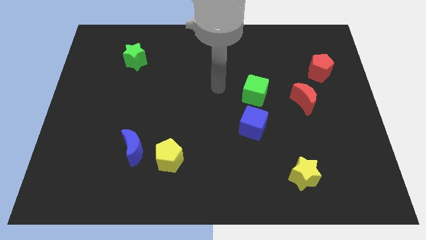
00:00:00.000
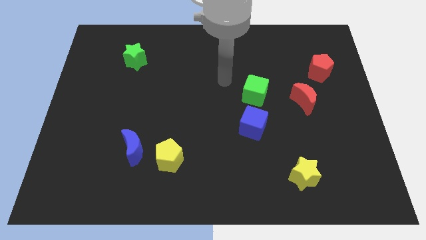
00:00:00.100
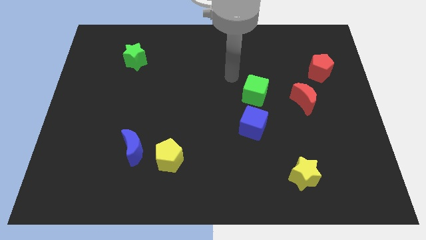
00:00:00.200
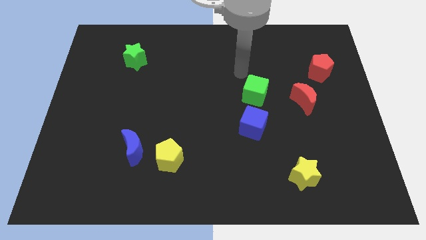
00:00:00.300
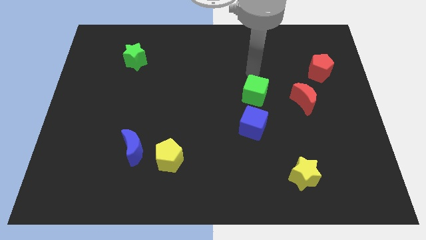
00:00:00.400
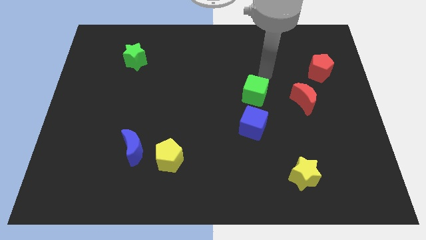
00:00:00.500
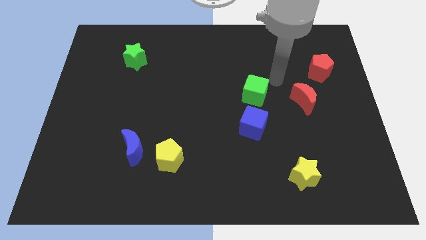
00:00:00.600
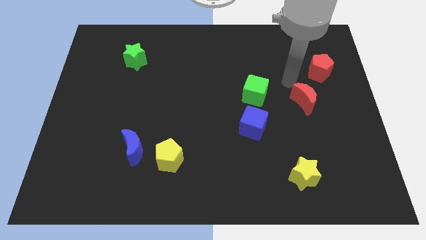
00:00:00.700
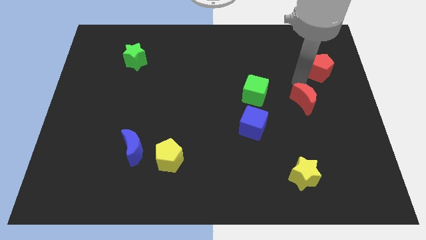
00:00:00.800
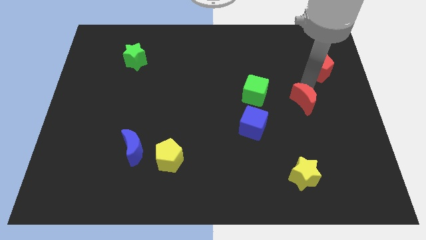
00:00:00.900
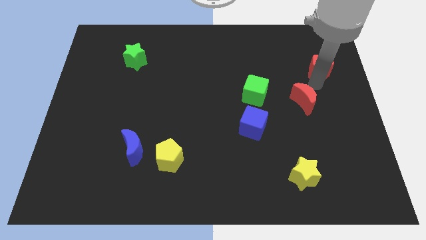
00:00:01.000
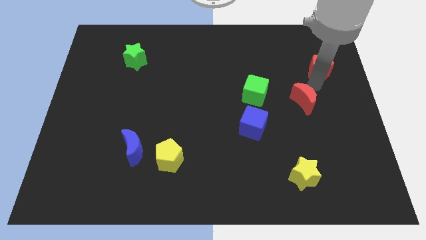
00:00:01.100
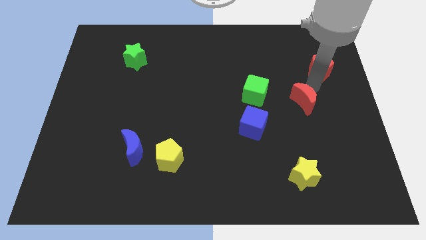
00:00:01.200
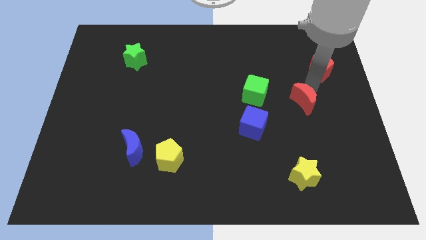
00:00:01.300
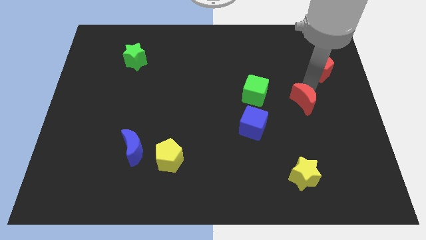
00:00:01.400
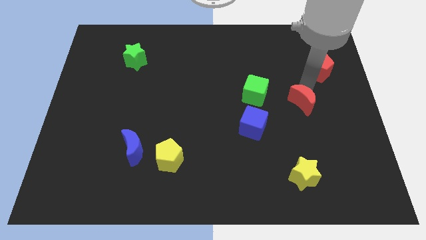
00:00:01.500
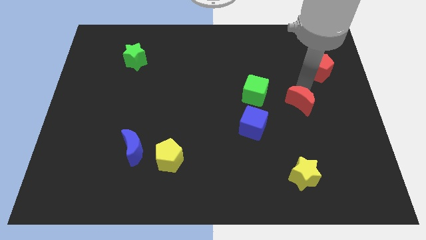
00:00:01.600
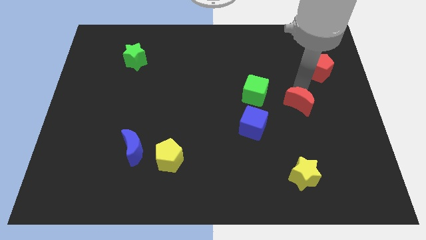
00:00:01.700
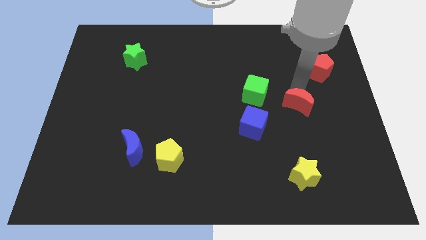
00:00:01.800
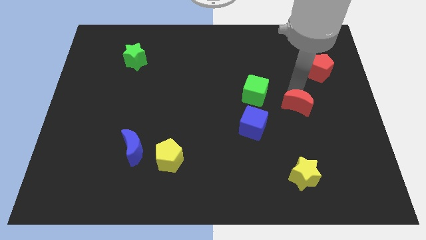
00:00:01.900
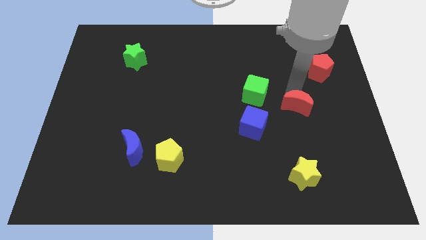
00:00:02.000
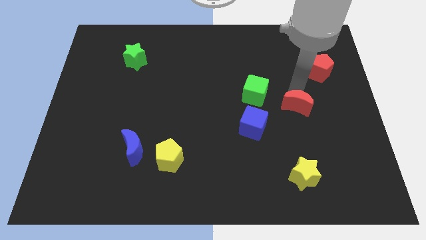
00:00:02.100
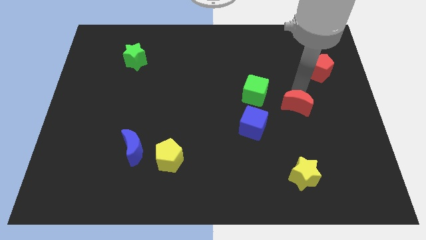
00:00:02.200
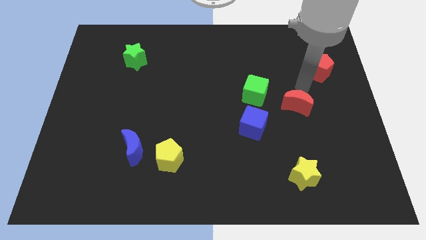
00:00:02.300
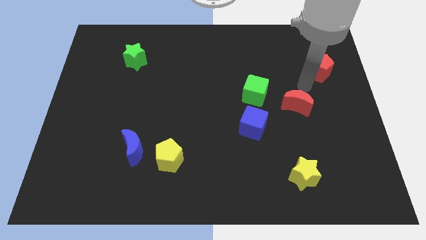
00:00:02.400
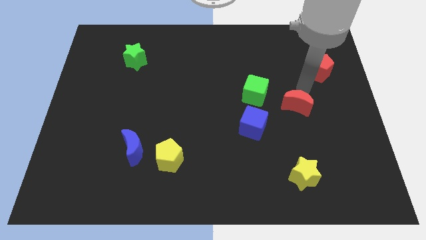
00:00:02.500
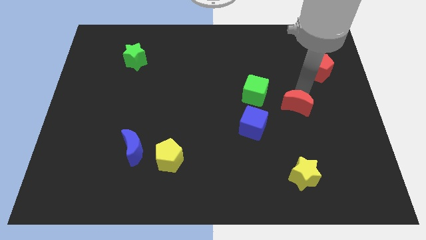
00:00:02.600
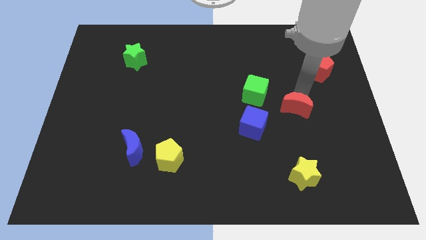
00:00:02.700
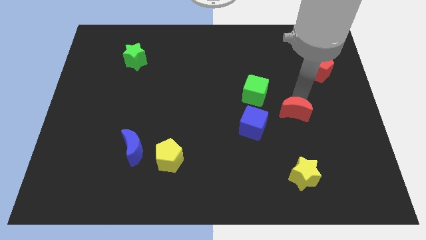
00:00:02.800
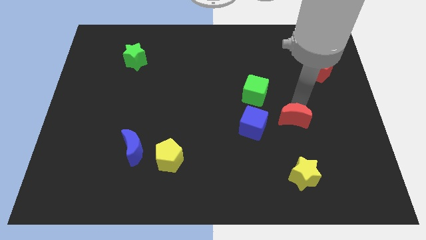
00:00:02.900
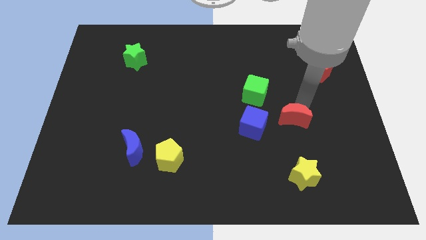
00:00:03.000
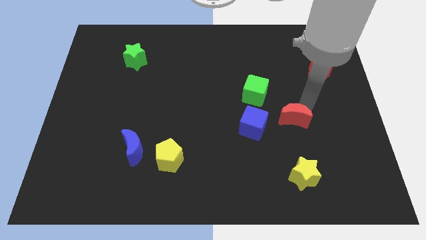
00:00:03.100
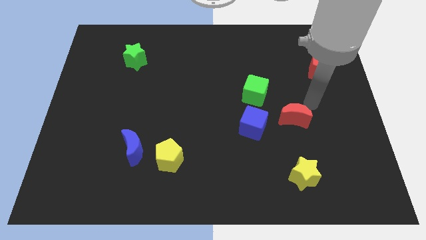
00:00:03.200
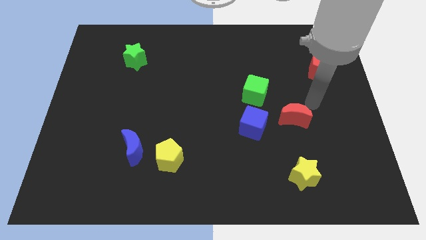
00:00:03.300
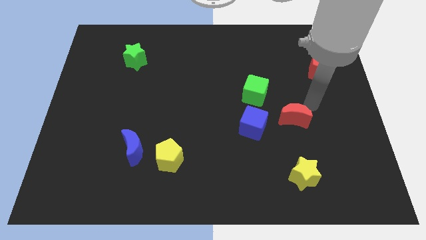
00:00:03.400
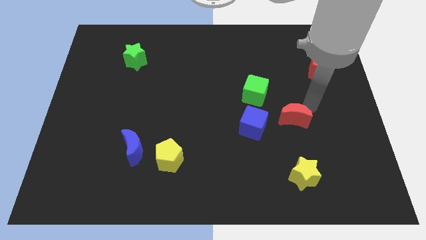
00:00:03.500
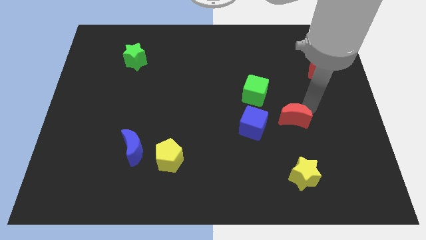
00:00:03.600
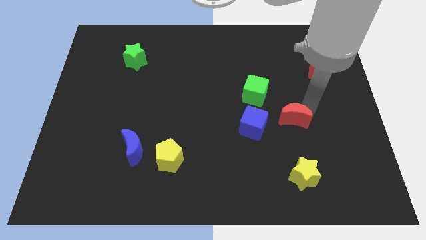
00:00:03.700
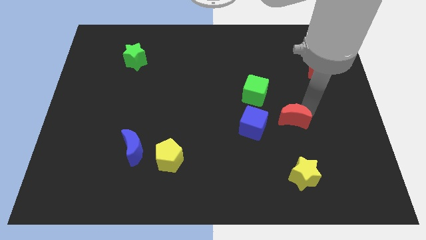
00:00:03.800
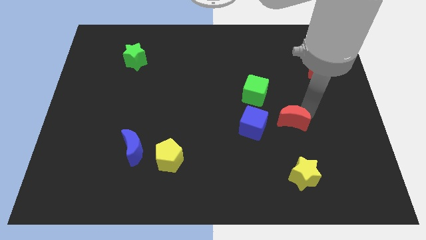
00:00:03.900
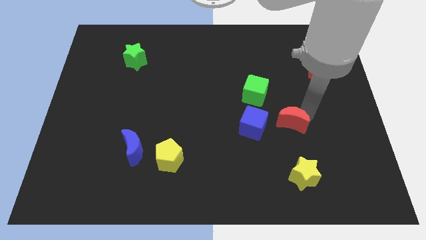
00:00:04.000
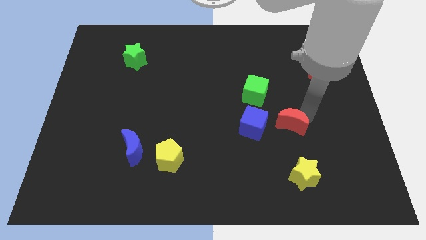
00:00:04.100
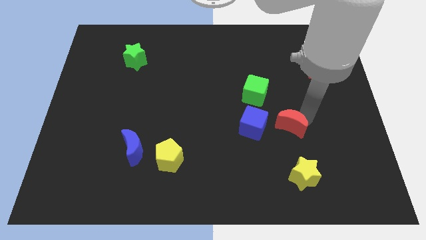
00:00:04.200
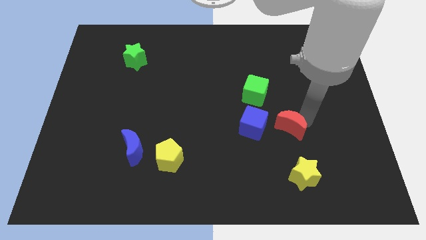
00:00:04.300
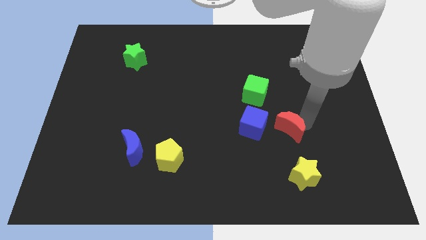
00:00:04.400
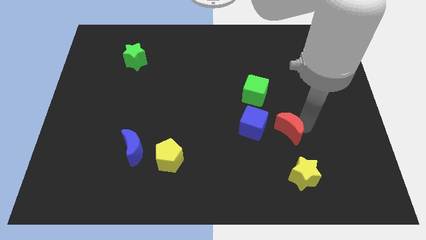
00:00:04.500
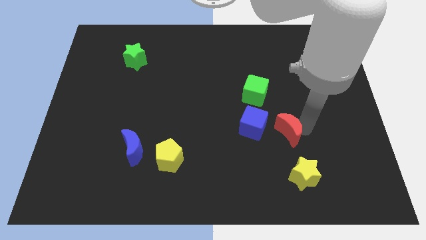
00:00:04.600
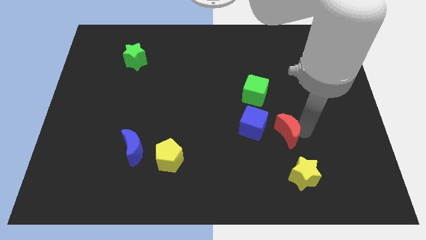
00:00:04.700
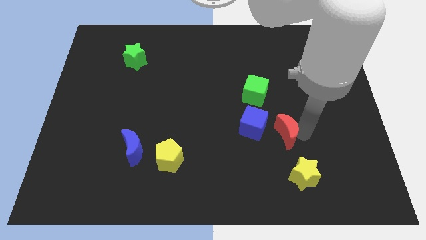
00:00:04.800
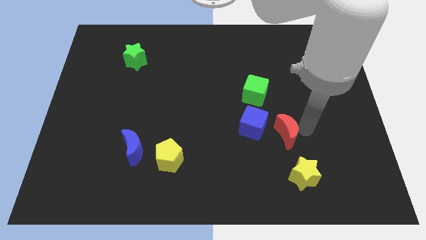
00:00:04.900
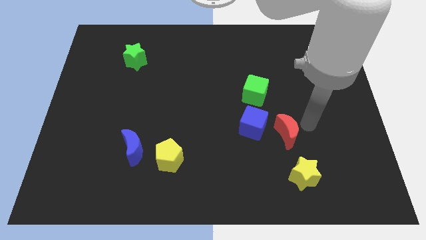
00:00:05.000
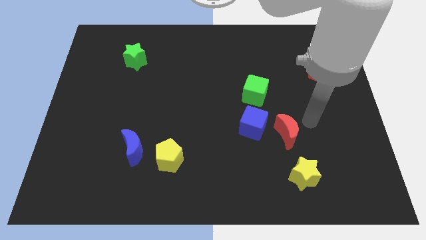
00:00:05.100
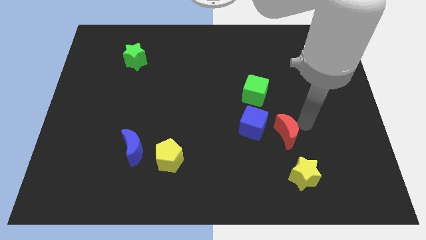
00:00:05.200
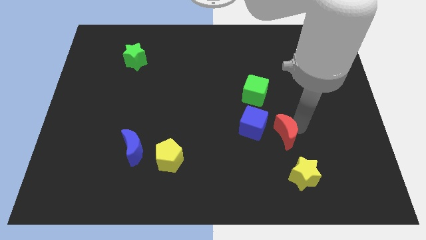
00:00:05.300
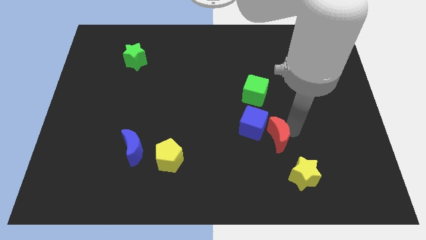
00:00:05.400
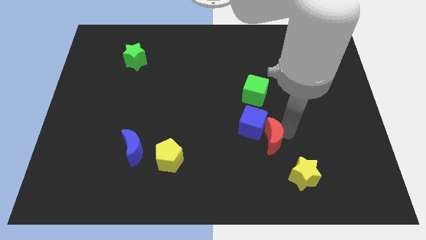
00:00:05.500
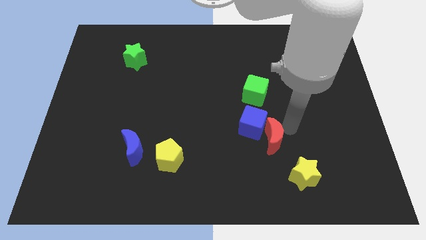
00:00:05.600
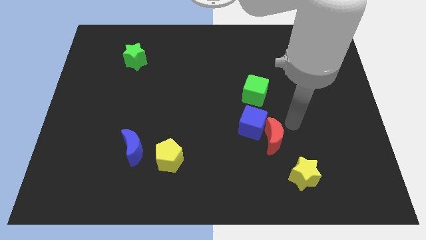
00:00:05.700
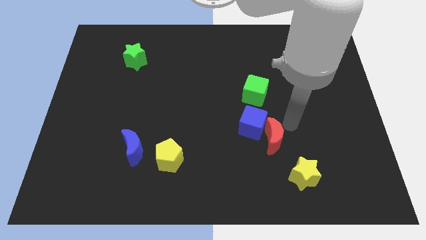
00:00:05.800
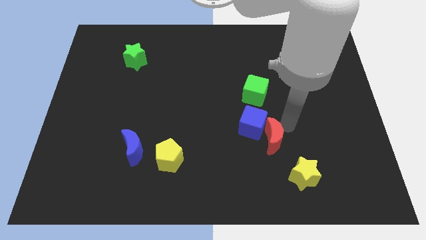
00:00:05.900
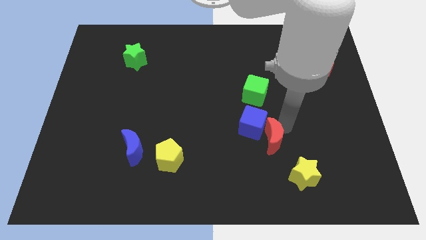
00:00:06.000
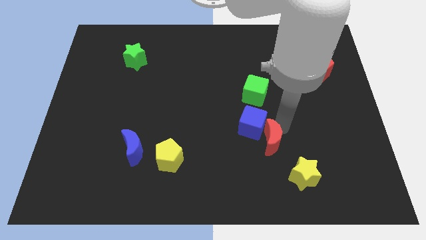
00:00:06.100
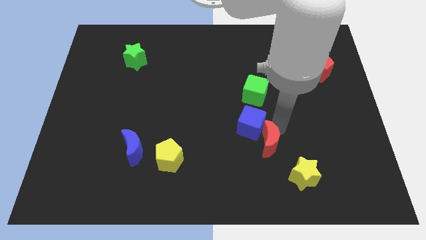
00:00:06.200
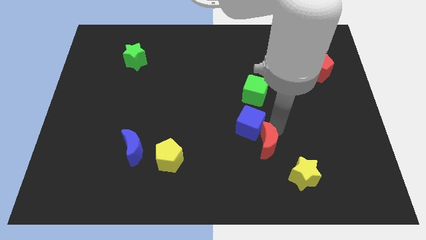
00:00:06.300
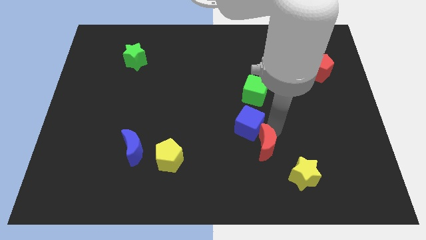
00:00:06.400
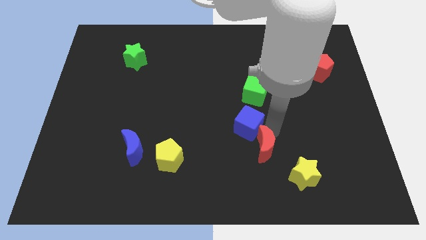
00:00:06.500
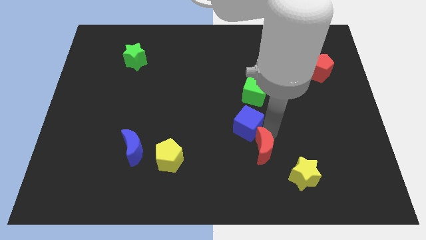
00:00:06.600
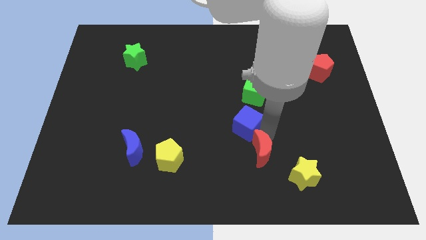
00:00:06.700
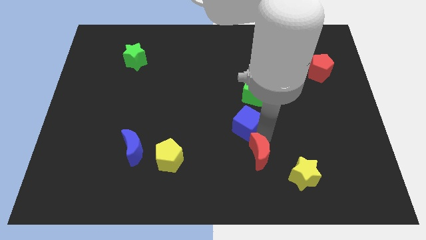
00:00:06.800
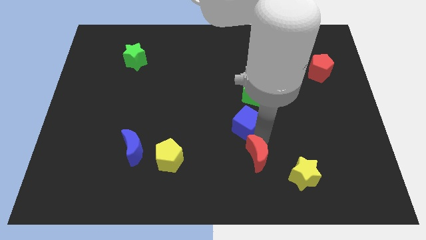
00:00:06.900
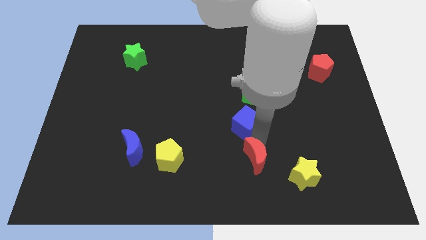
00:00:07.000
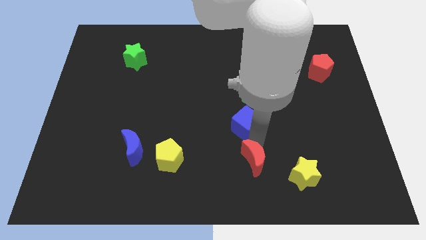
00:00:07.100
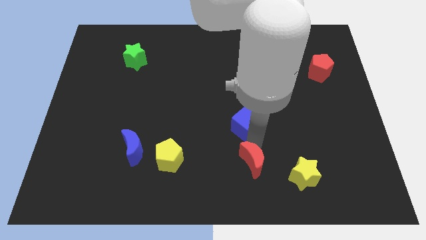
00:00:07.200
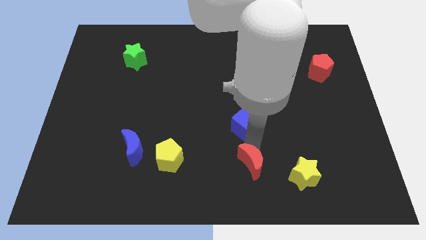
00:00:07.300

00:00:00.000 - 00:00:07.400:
push the red moon to the bottom
